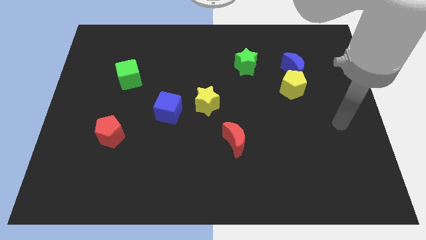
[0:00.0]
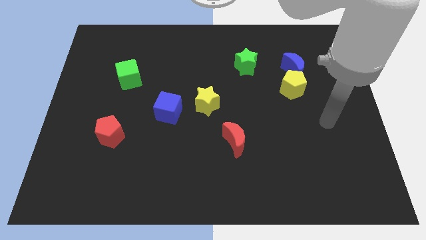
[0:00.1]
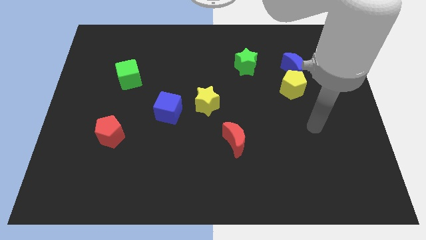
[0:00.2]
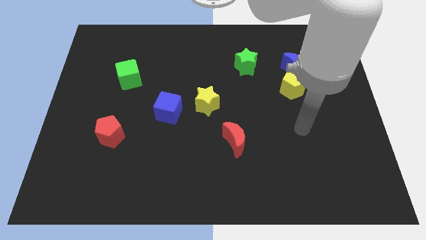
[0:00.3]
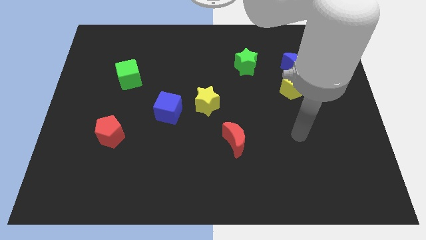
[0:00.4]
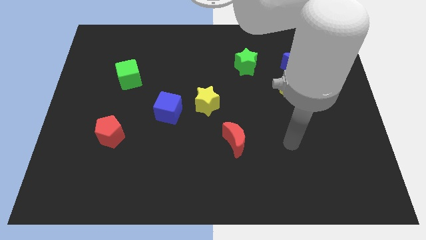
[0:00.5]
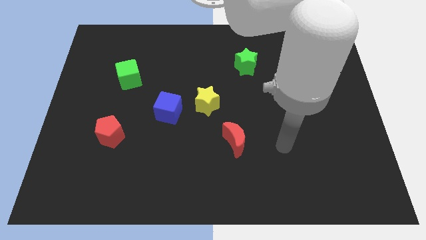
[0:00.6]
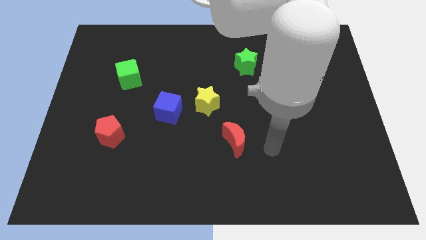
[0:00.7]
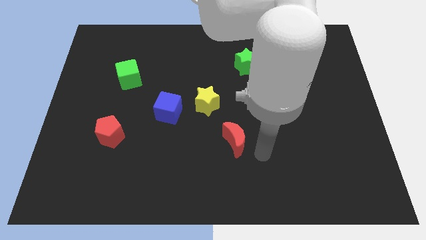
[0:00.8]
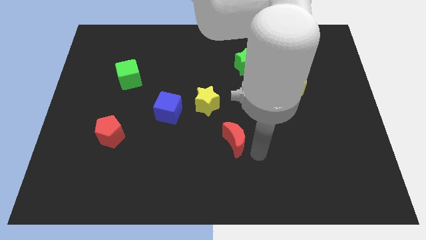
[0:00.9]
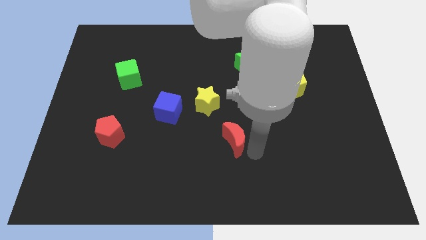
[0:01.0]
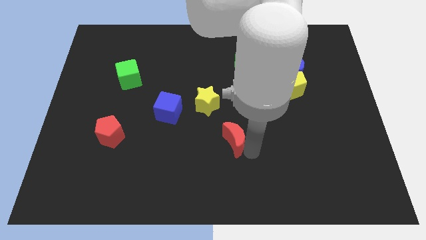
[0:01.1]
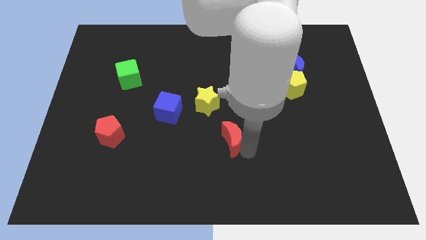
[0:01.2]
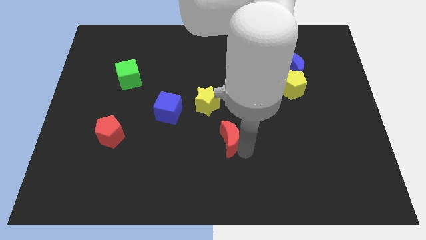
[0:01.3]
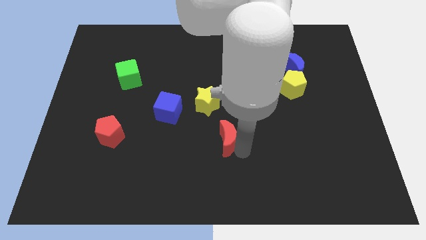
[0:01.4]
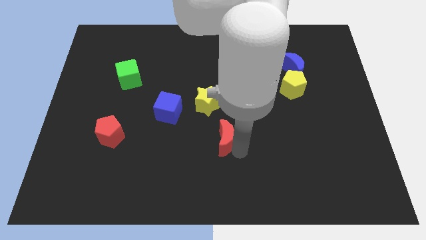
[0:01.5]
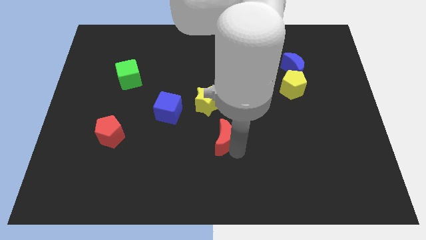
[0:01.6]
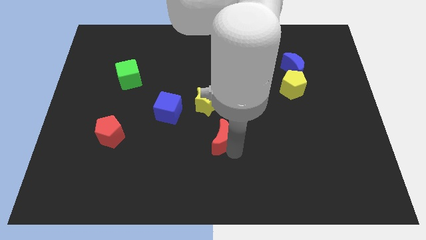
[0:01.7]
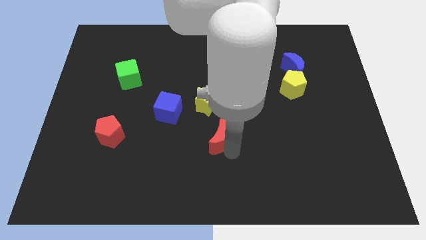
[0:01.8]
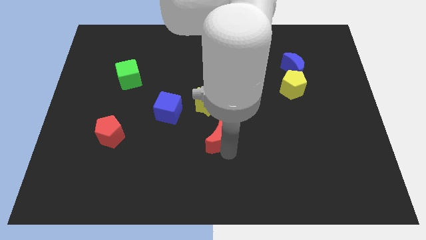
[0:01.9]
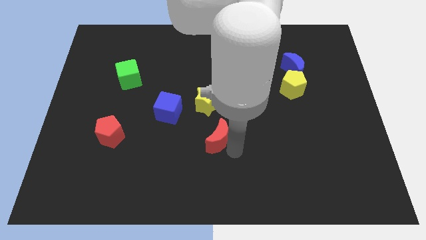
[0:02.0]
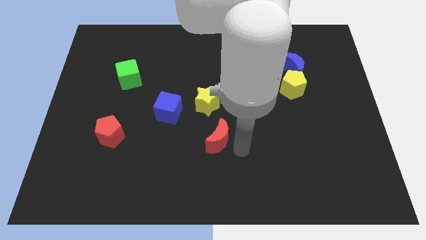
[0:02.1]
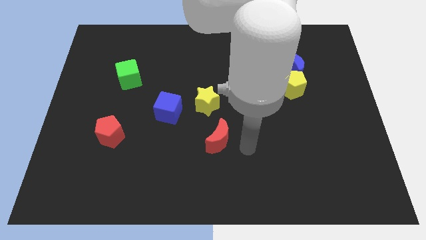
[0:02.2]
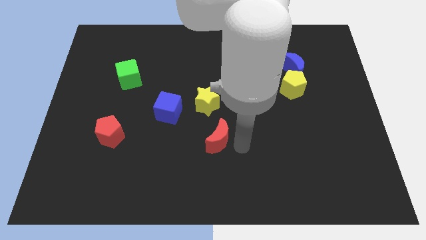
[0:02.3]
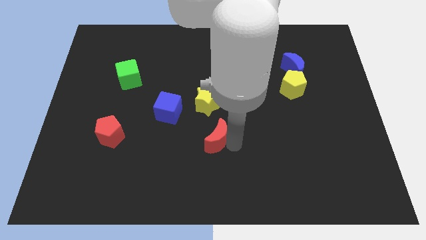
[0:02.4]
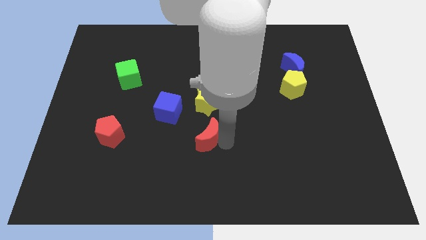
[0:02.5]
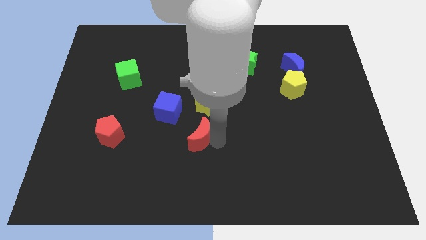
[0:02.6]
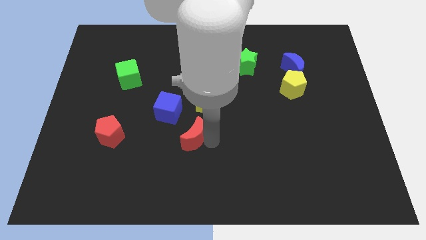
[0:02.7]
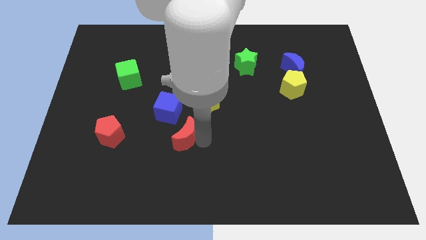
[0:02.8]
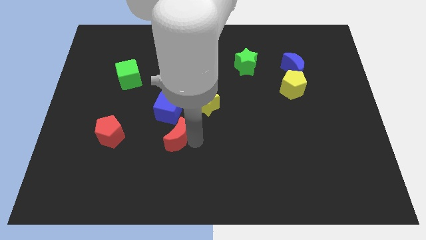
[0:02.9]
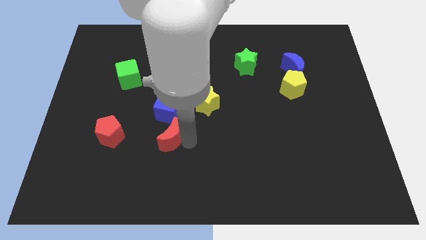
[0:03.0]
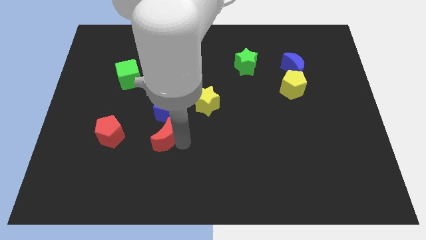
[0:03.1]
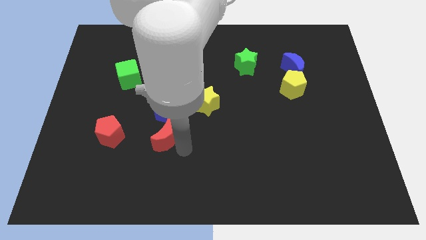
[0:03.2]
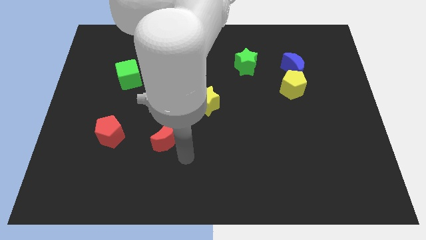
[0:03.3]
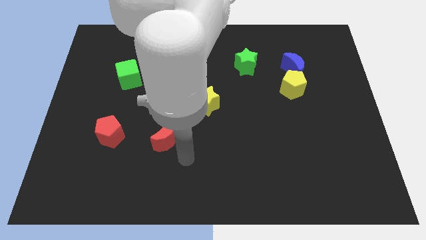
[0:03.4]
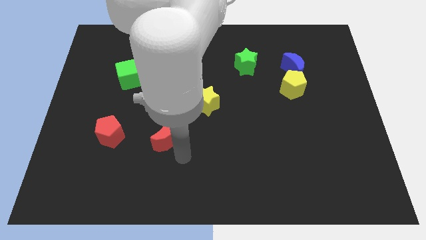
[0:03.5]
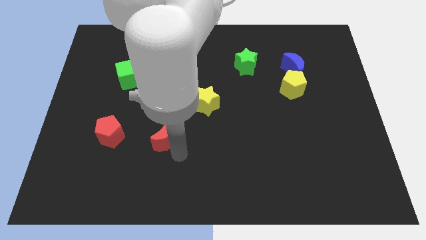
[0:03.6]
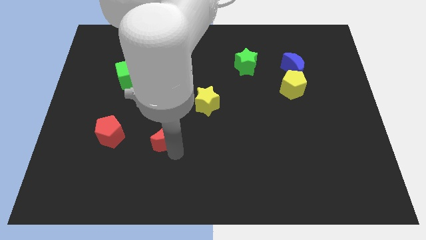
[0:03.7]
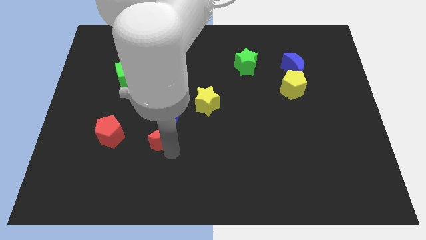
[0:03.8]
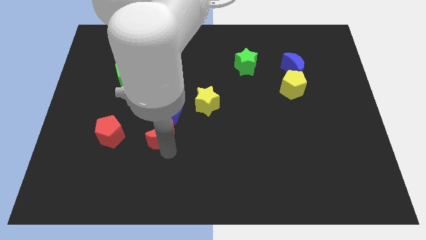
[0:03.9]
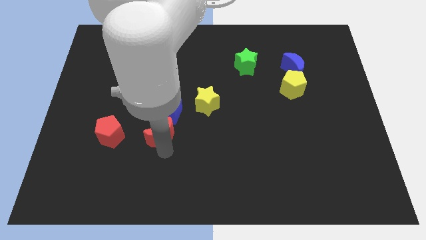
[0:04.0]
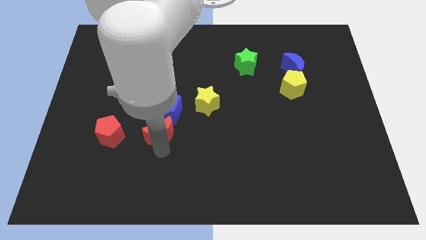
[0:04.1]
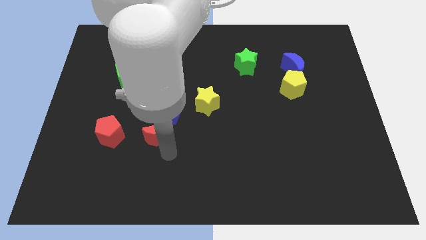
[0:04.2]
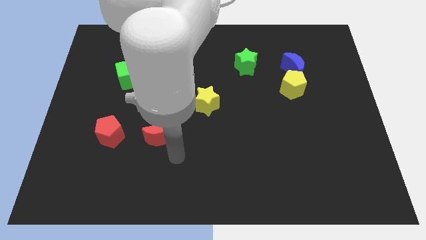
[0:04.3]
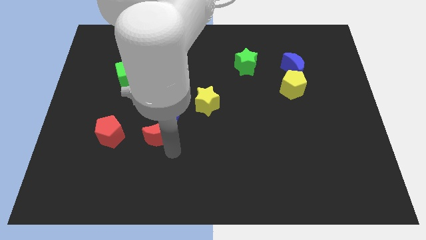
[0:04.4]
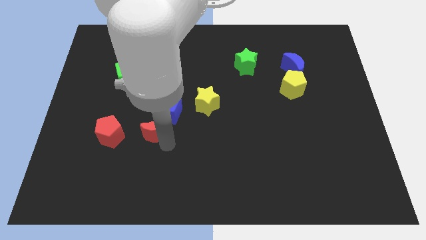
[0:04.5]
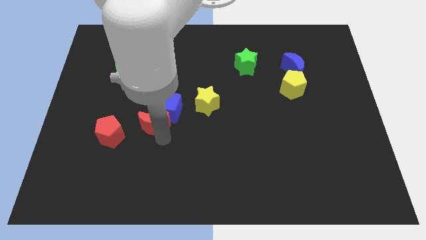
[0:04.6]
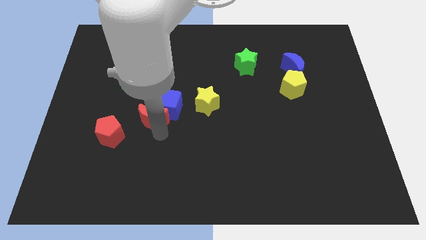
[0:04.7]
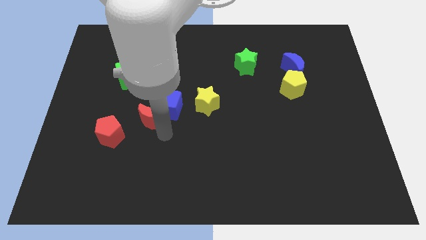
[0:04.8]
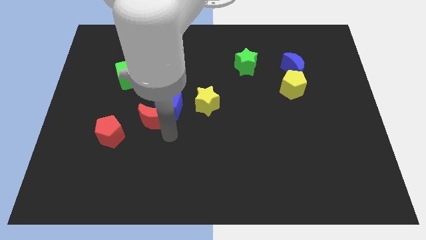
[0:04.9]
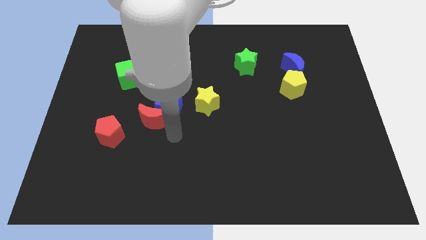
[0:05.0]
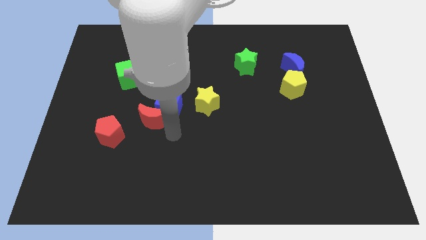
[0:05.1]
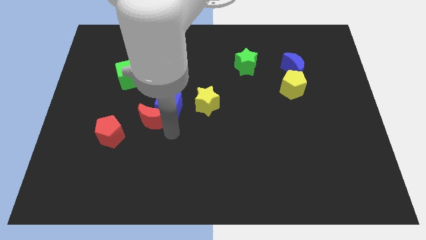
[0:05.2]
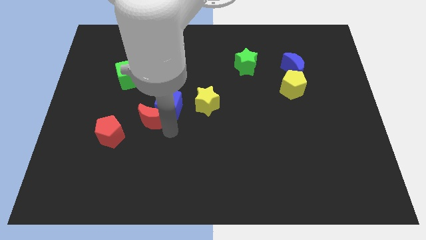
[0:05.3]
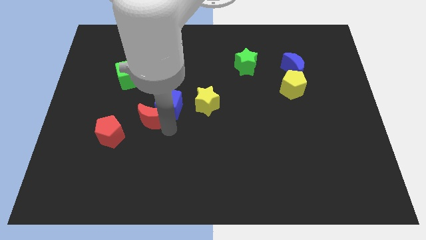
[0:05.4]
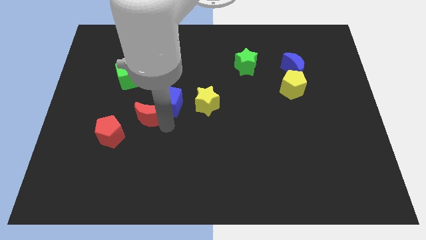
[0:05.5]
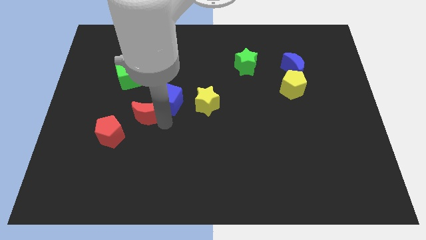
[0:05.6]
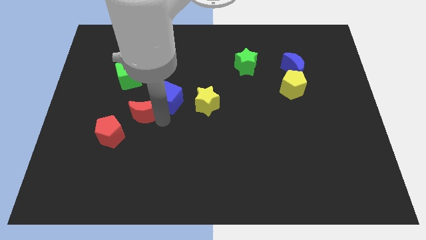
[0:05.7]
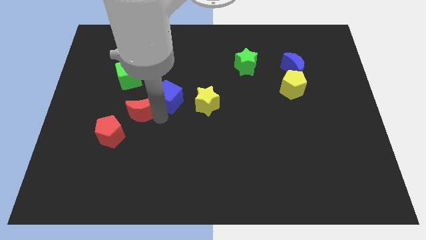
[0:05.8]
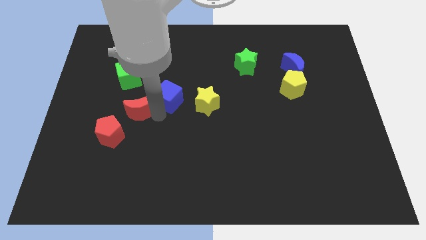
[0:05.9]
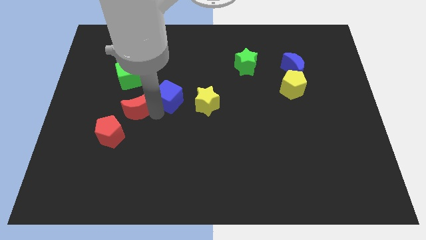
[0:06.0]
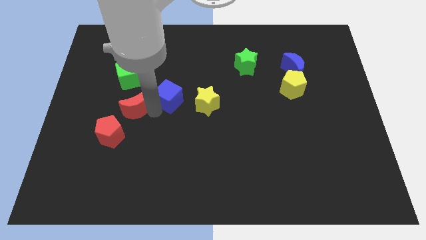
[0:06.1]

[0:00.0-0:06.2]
push the red moon above the red pentagon

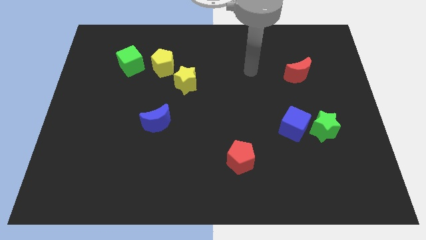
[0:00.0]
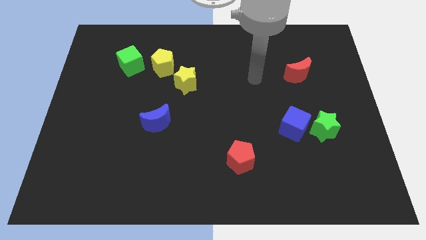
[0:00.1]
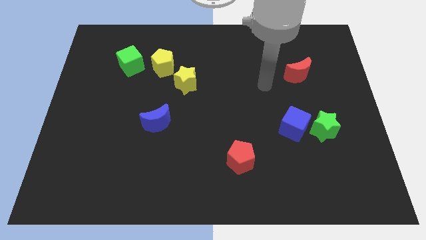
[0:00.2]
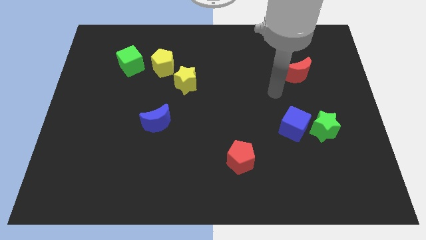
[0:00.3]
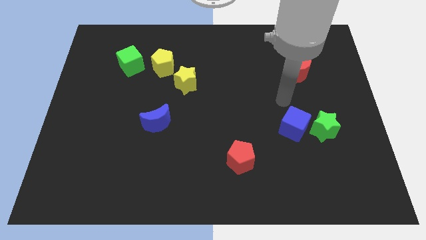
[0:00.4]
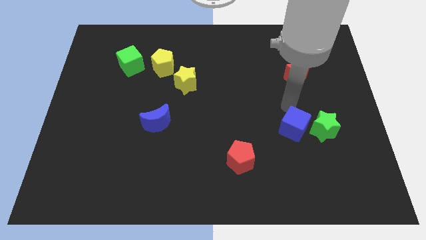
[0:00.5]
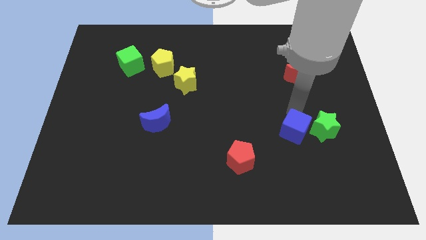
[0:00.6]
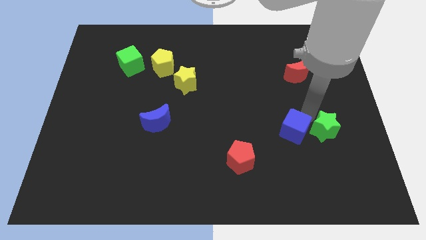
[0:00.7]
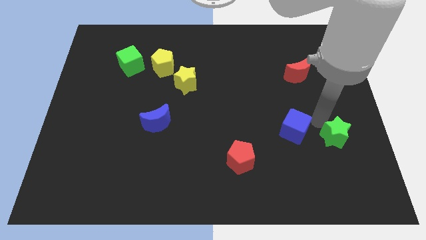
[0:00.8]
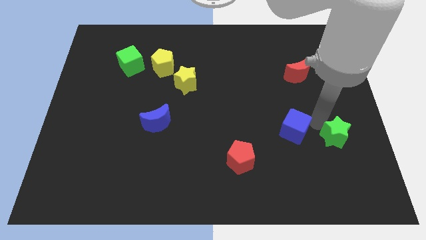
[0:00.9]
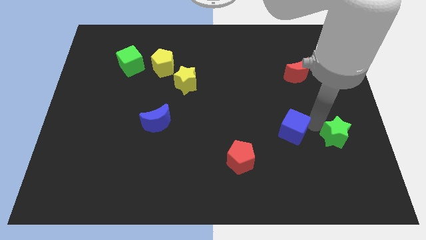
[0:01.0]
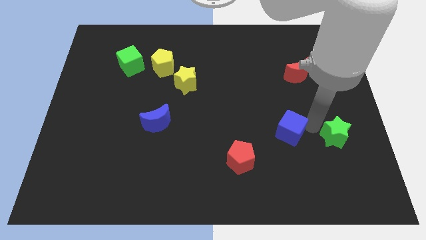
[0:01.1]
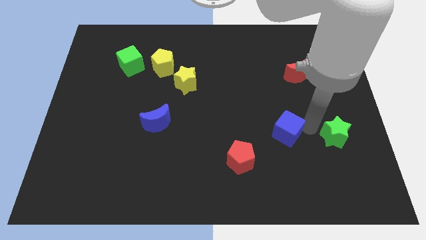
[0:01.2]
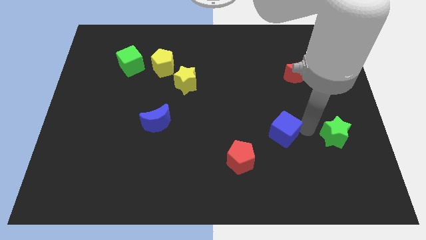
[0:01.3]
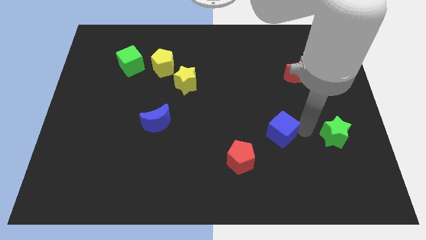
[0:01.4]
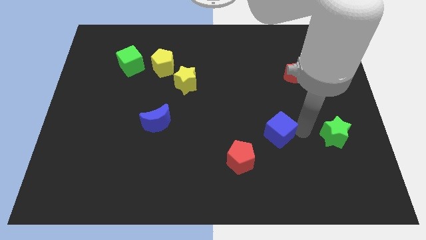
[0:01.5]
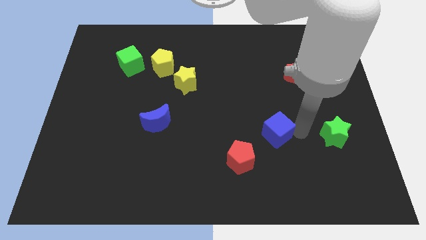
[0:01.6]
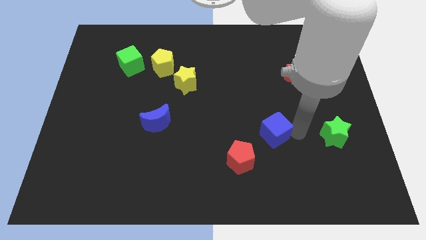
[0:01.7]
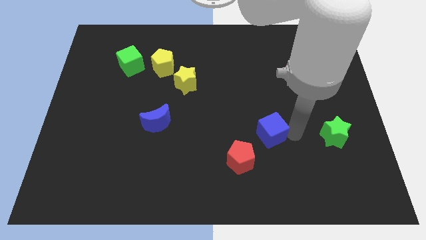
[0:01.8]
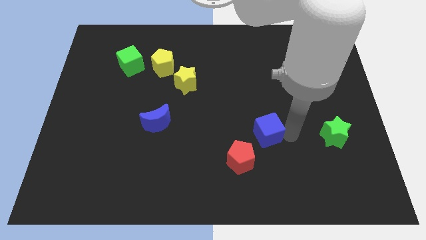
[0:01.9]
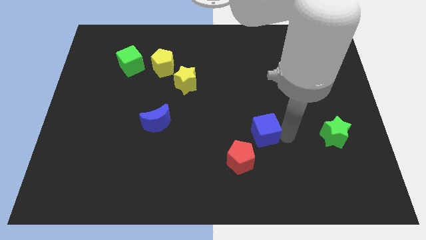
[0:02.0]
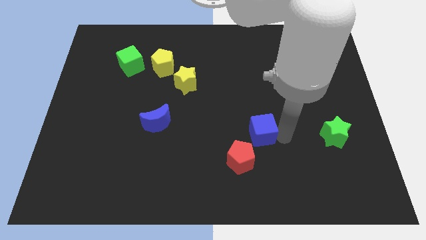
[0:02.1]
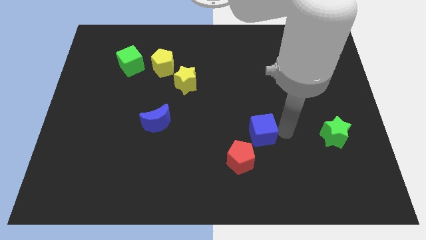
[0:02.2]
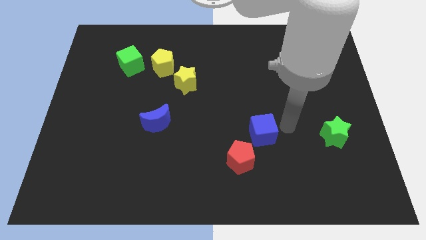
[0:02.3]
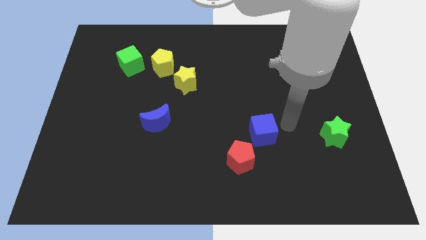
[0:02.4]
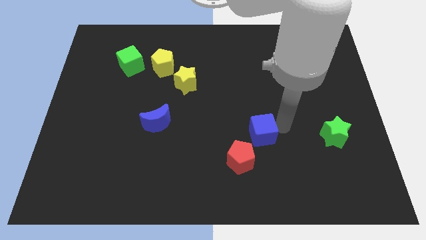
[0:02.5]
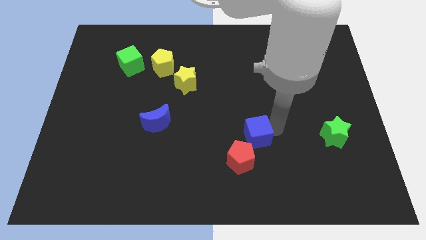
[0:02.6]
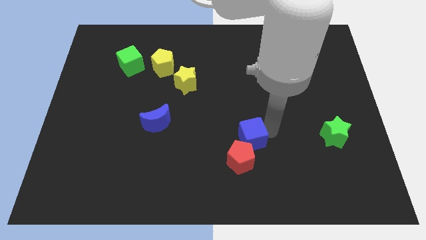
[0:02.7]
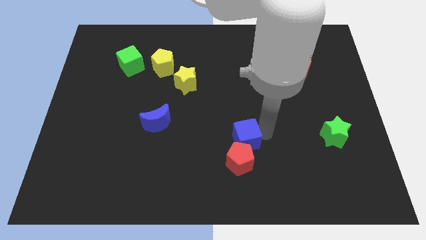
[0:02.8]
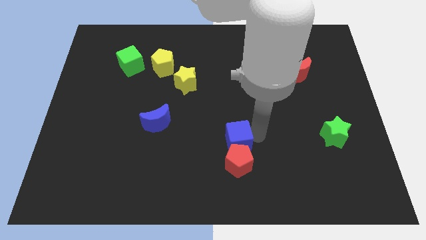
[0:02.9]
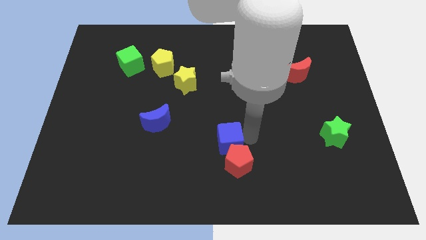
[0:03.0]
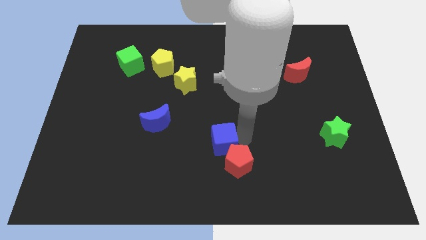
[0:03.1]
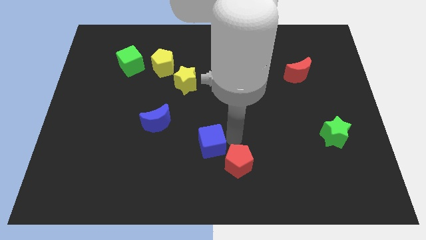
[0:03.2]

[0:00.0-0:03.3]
put the blue cube left of the red pentagon
